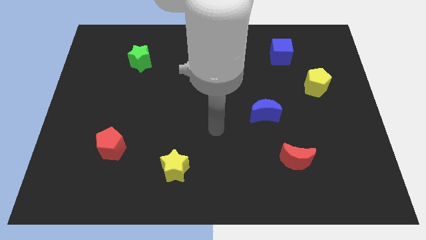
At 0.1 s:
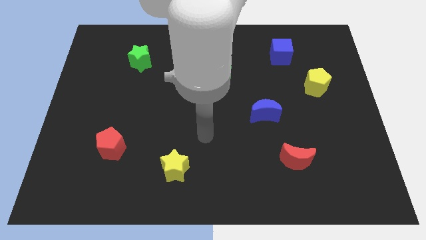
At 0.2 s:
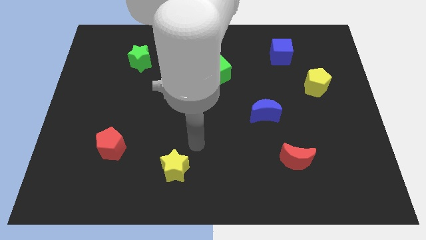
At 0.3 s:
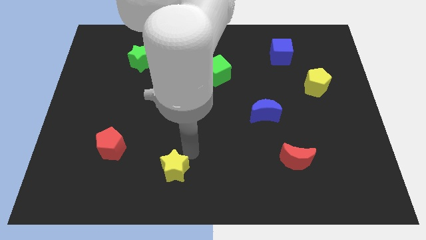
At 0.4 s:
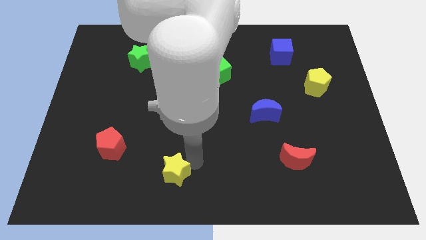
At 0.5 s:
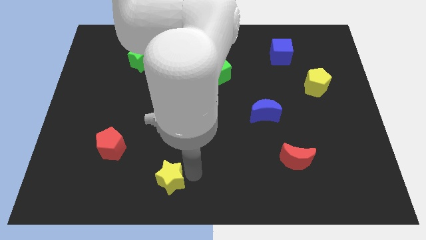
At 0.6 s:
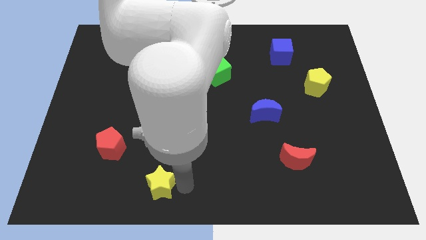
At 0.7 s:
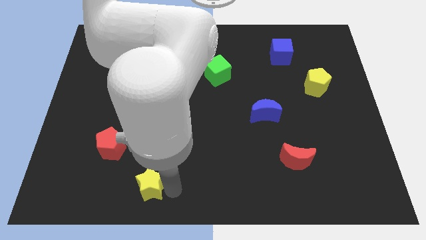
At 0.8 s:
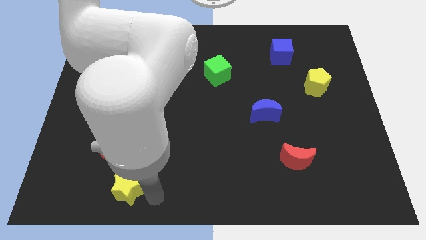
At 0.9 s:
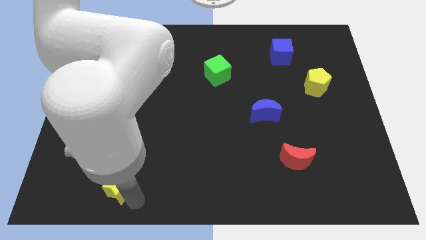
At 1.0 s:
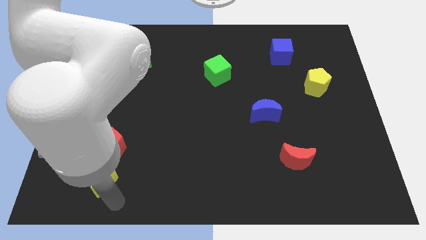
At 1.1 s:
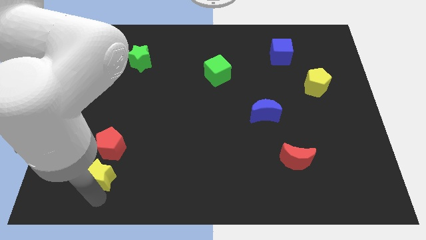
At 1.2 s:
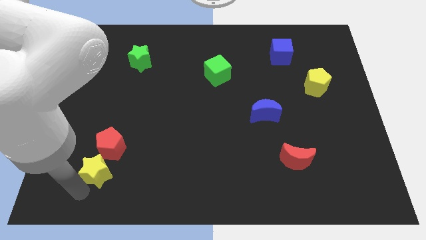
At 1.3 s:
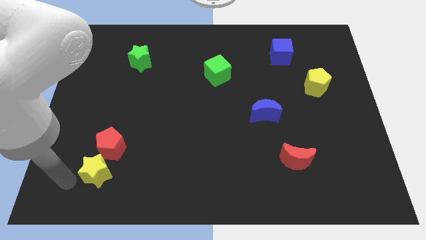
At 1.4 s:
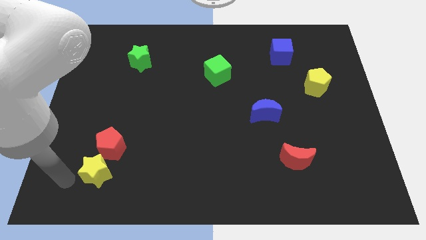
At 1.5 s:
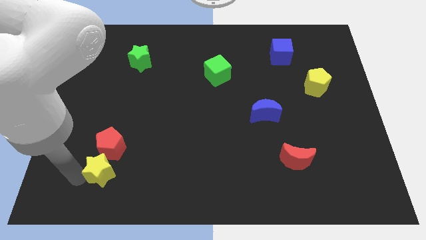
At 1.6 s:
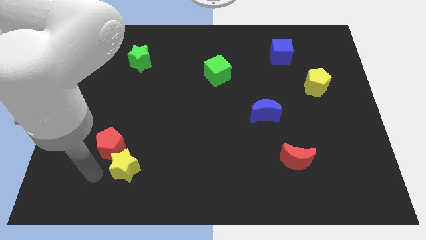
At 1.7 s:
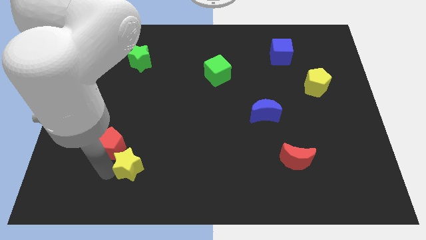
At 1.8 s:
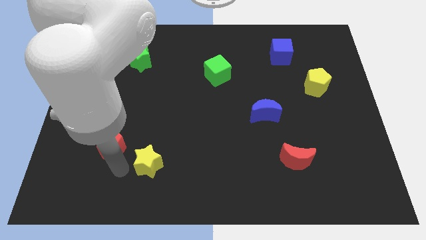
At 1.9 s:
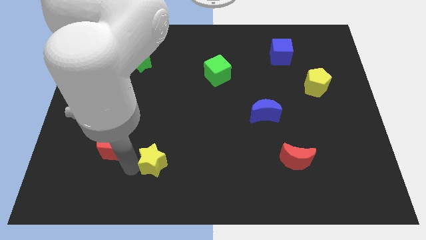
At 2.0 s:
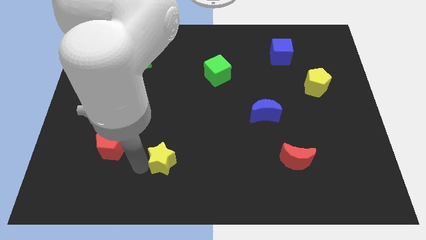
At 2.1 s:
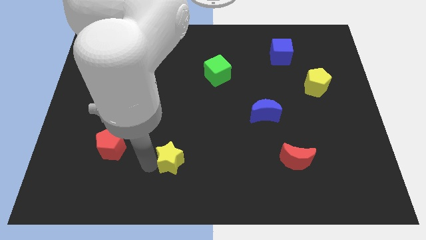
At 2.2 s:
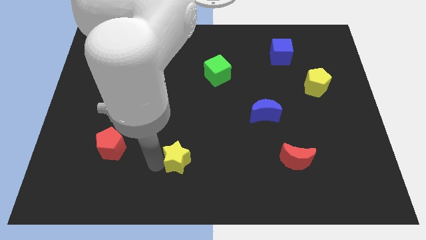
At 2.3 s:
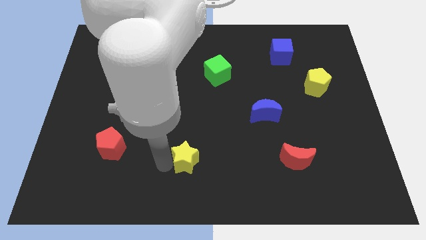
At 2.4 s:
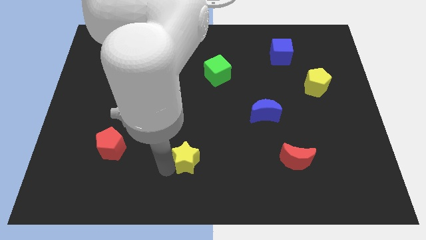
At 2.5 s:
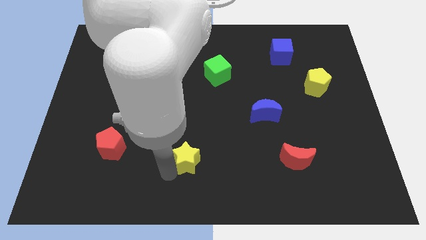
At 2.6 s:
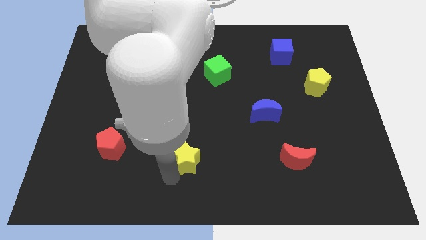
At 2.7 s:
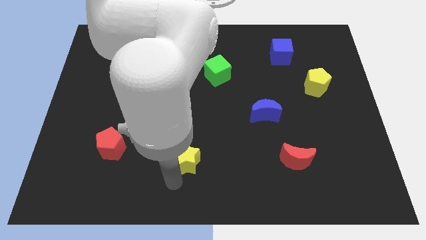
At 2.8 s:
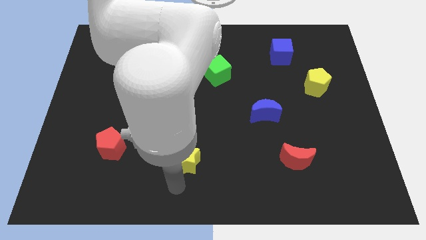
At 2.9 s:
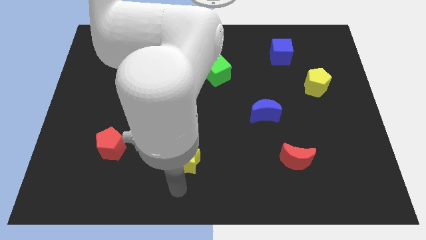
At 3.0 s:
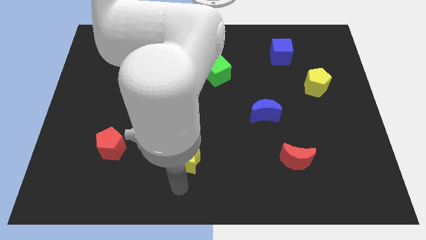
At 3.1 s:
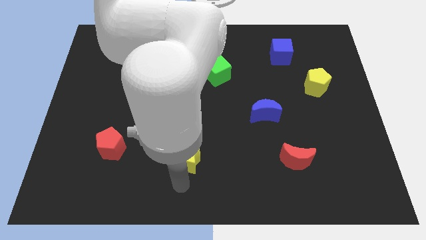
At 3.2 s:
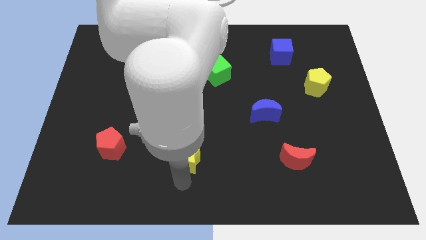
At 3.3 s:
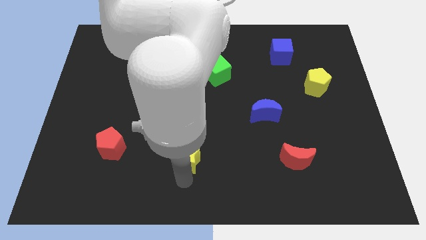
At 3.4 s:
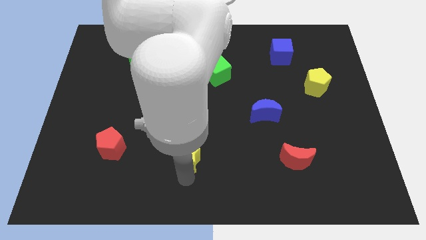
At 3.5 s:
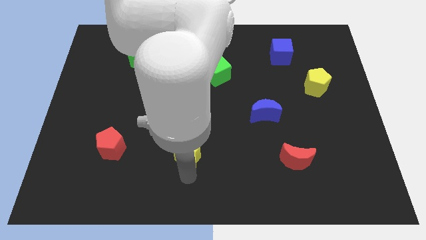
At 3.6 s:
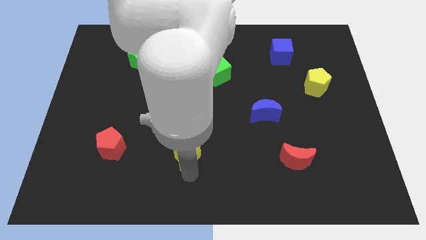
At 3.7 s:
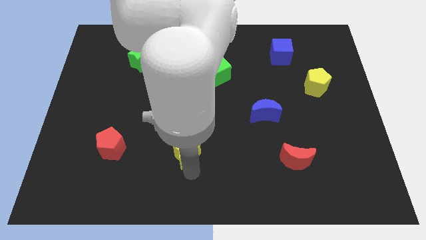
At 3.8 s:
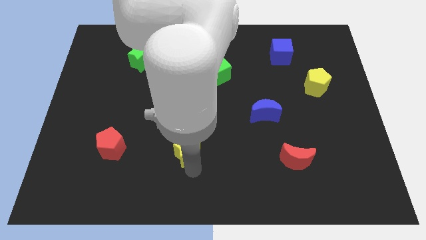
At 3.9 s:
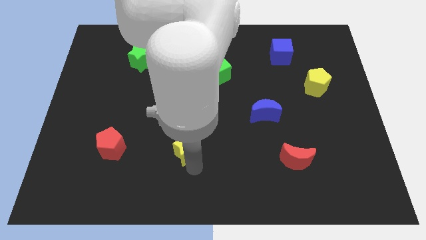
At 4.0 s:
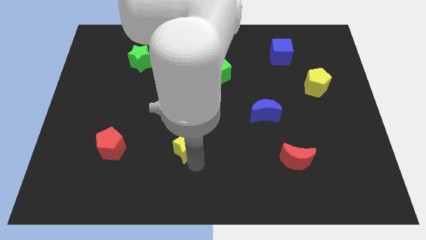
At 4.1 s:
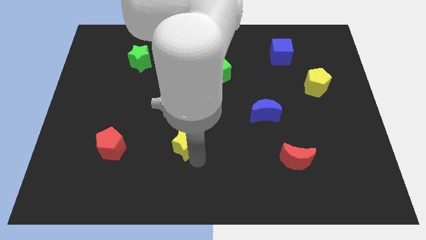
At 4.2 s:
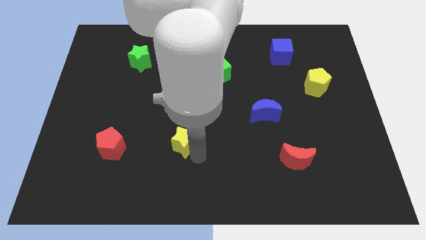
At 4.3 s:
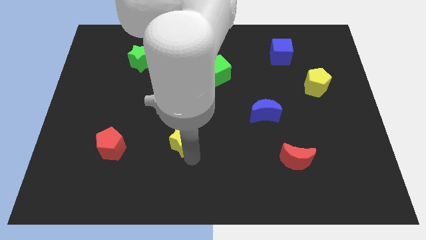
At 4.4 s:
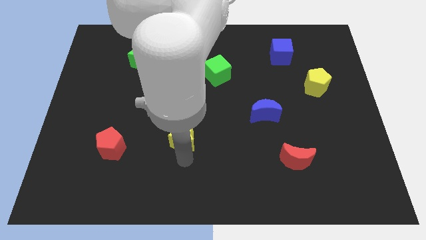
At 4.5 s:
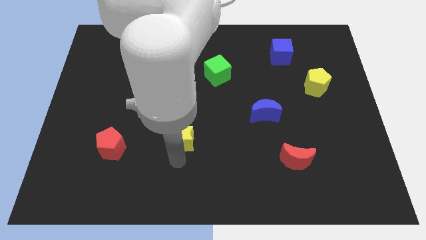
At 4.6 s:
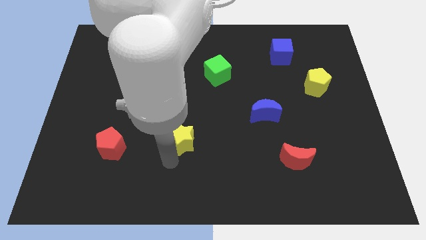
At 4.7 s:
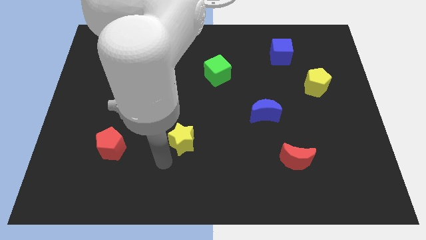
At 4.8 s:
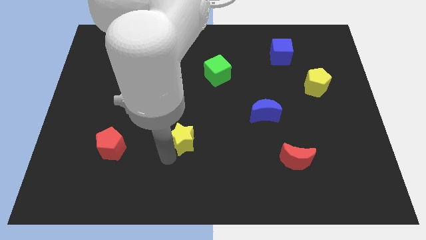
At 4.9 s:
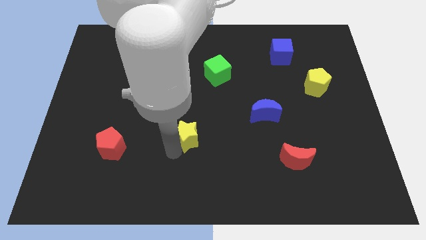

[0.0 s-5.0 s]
put the yellow star to the center of the board

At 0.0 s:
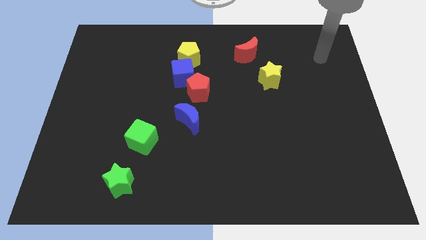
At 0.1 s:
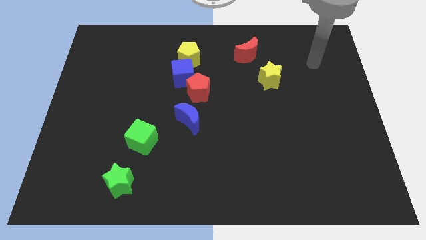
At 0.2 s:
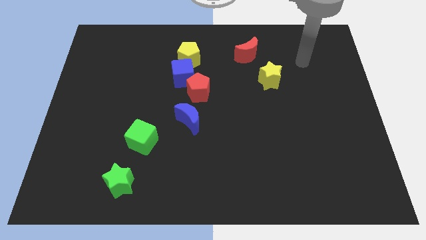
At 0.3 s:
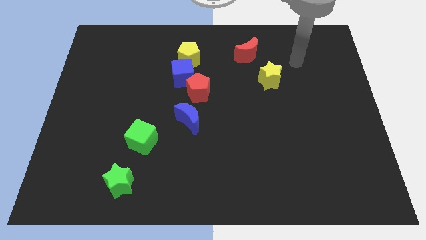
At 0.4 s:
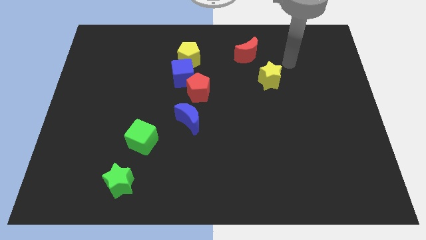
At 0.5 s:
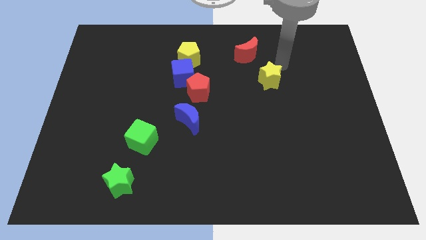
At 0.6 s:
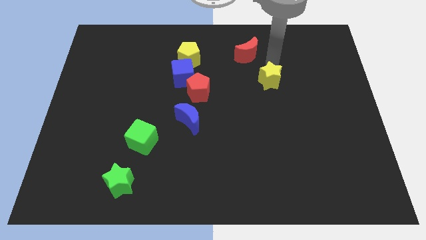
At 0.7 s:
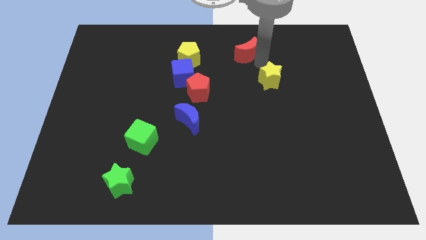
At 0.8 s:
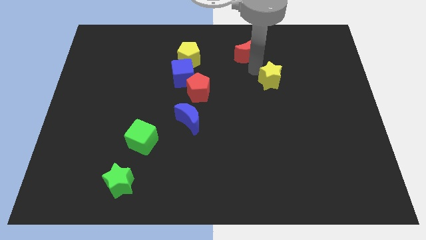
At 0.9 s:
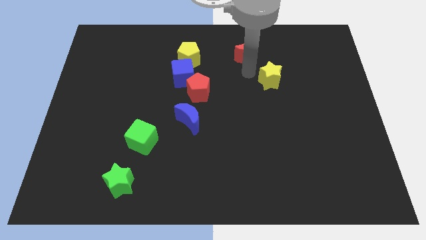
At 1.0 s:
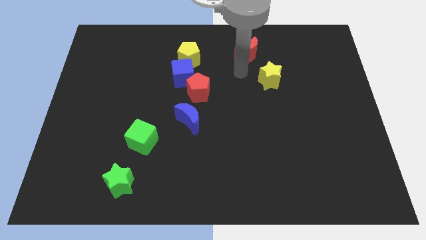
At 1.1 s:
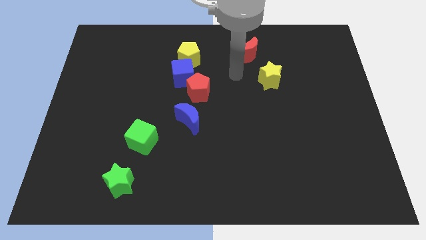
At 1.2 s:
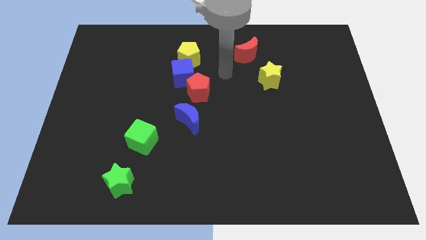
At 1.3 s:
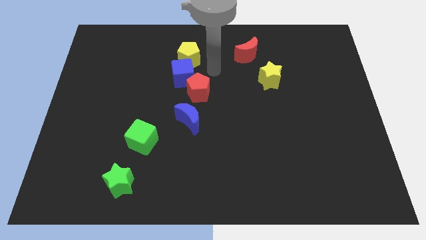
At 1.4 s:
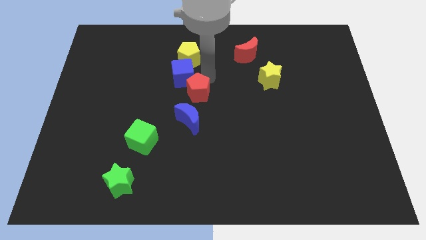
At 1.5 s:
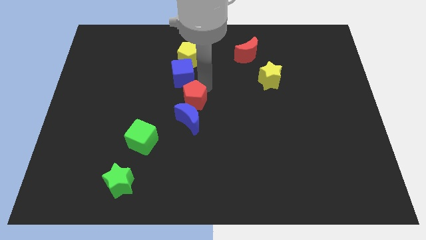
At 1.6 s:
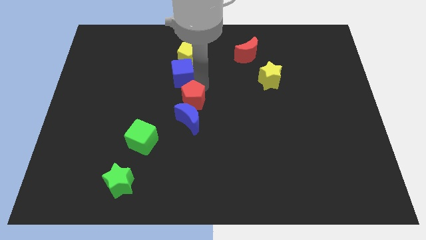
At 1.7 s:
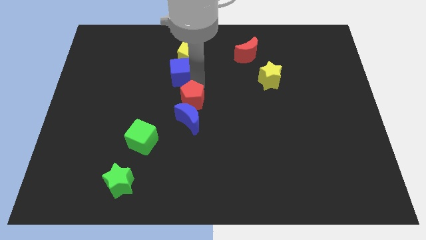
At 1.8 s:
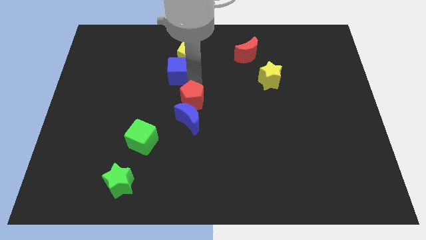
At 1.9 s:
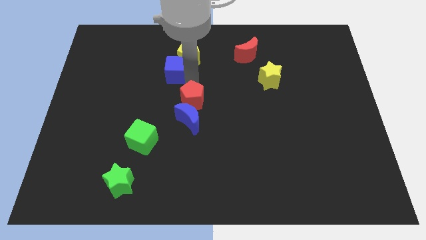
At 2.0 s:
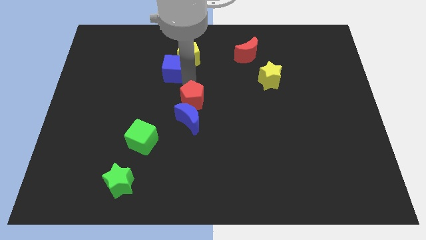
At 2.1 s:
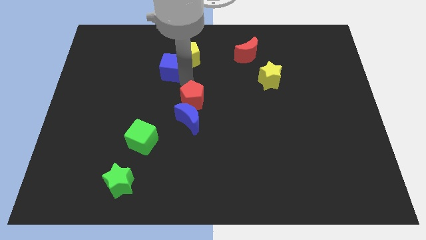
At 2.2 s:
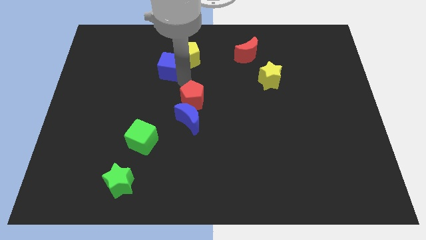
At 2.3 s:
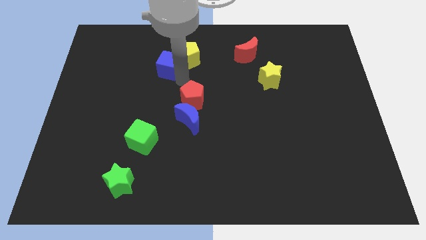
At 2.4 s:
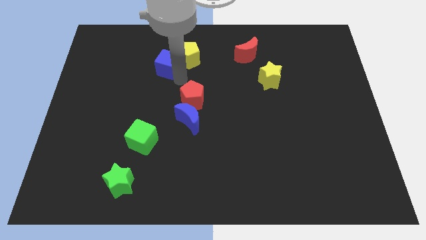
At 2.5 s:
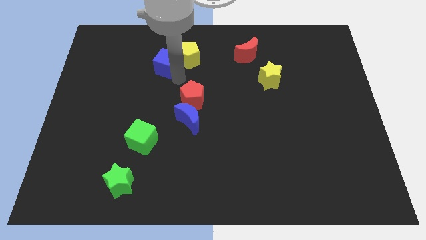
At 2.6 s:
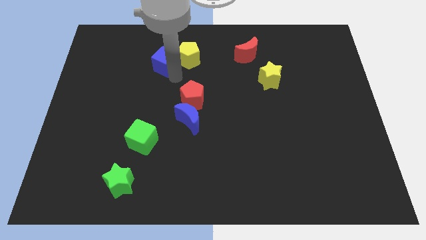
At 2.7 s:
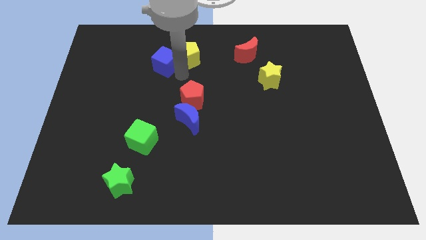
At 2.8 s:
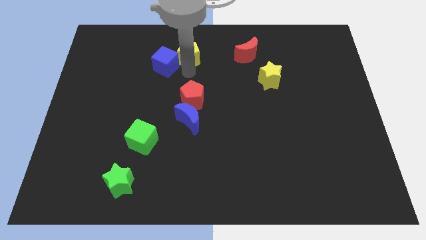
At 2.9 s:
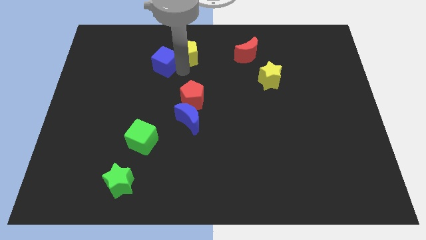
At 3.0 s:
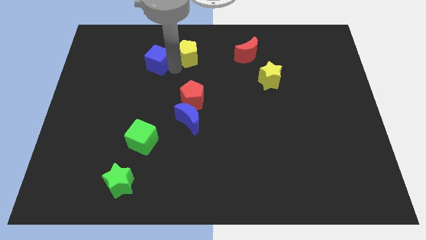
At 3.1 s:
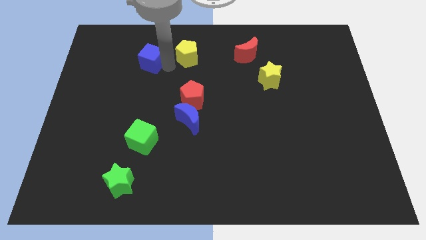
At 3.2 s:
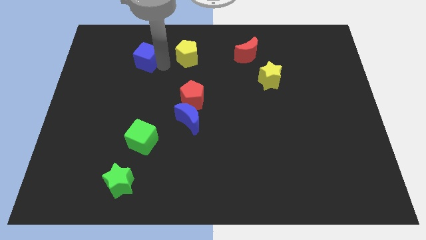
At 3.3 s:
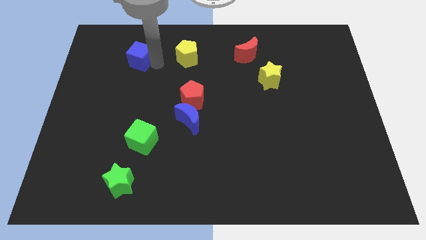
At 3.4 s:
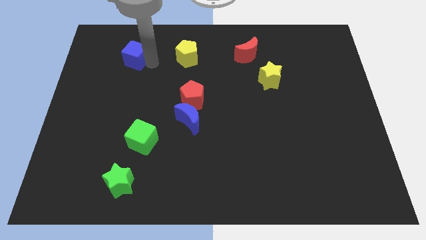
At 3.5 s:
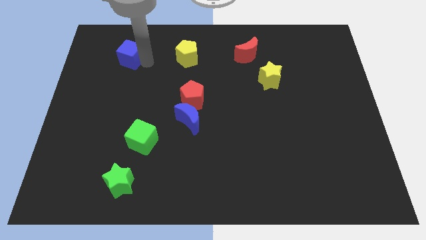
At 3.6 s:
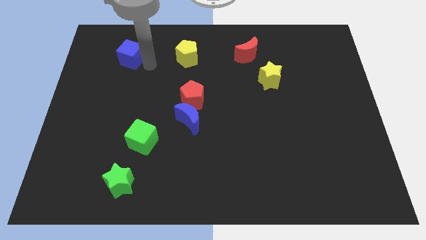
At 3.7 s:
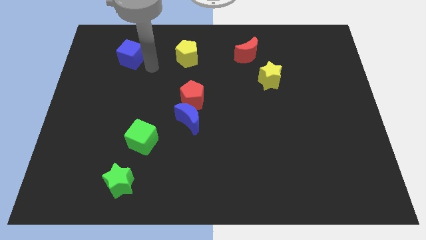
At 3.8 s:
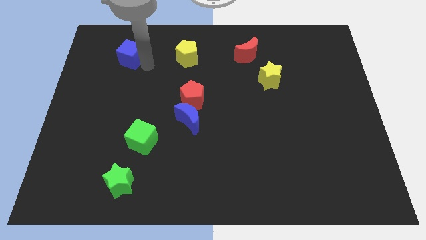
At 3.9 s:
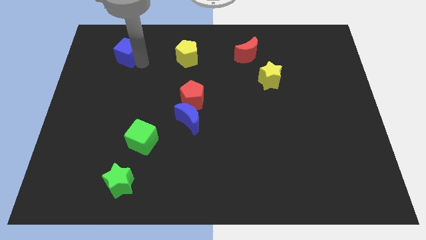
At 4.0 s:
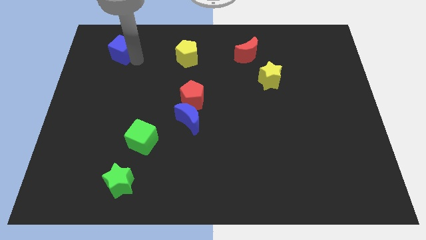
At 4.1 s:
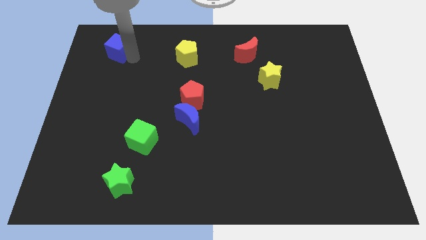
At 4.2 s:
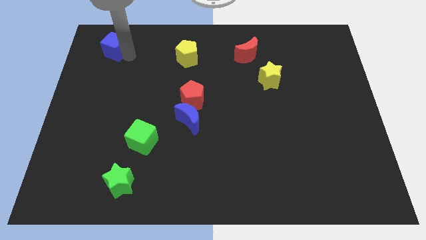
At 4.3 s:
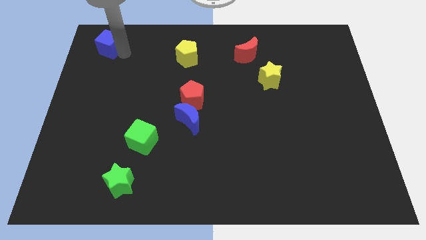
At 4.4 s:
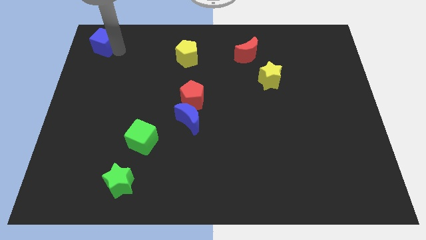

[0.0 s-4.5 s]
slide the blue cube to the top left corner
